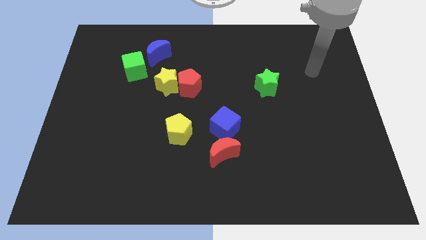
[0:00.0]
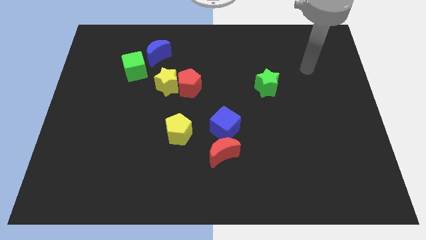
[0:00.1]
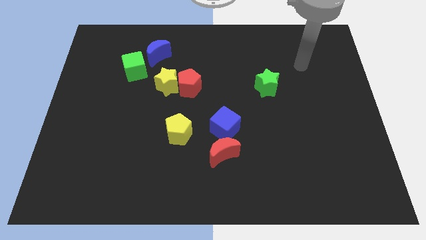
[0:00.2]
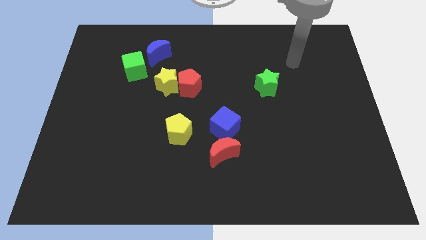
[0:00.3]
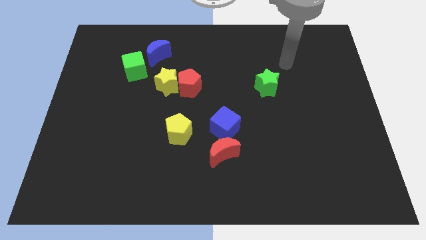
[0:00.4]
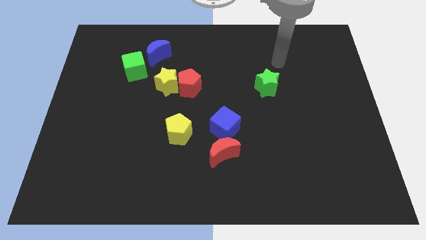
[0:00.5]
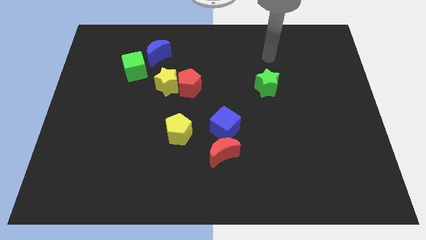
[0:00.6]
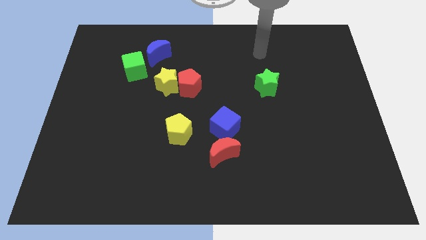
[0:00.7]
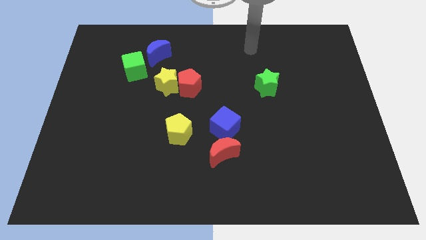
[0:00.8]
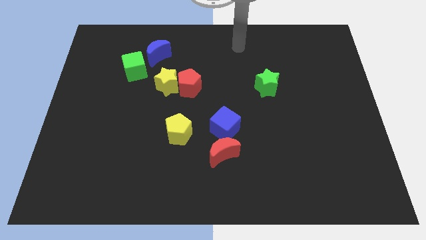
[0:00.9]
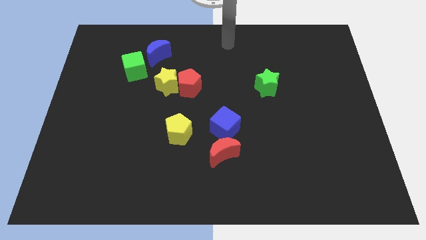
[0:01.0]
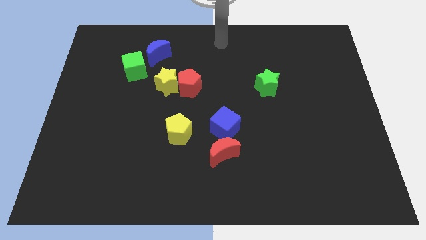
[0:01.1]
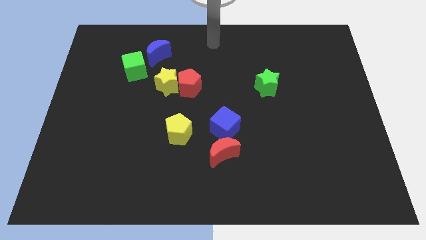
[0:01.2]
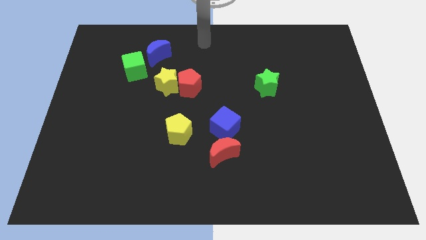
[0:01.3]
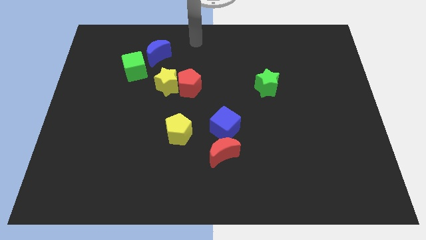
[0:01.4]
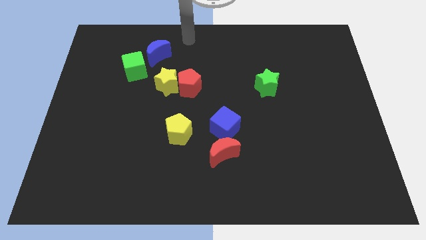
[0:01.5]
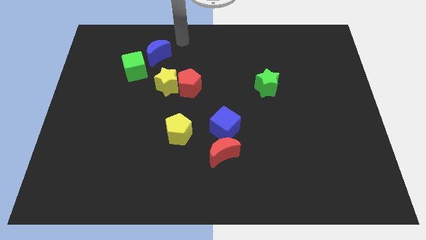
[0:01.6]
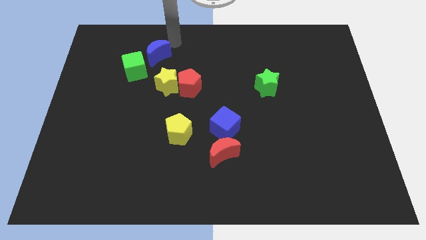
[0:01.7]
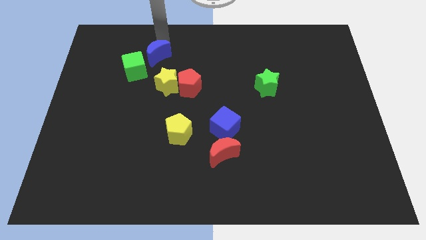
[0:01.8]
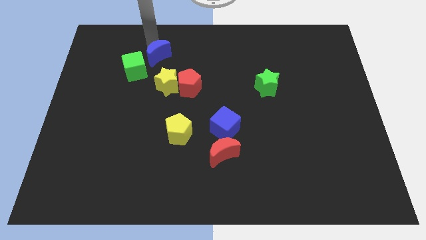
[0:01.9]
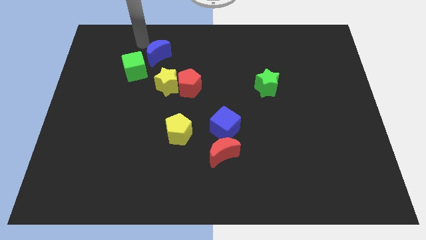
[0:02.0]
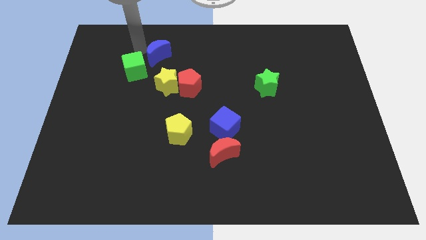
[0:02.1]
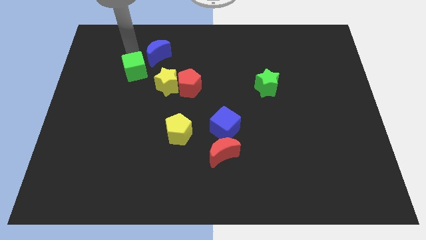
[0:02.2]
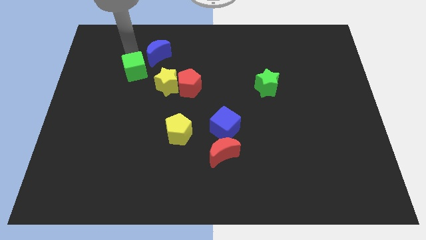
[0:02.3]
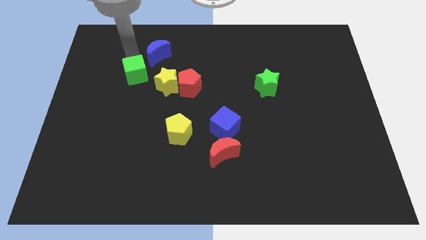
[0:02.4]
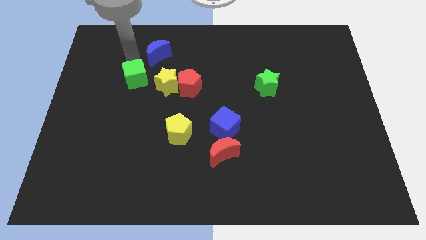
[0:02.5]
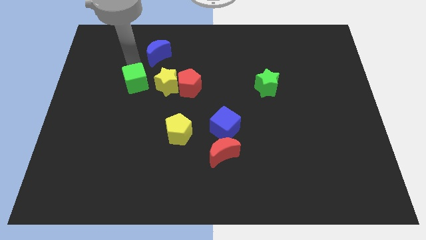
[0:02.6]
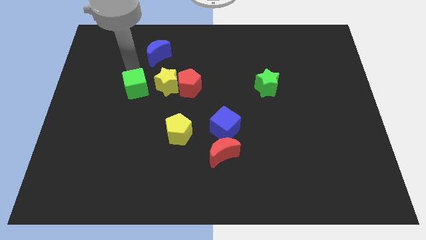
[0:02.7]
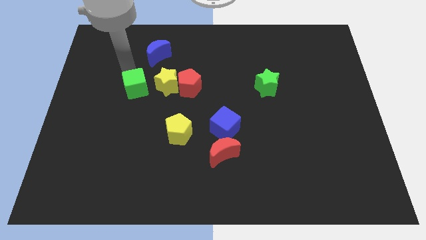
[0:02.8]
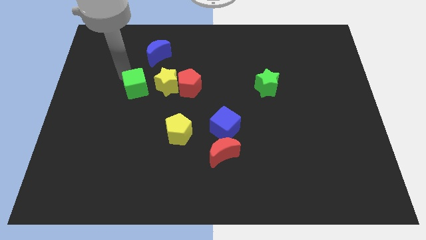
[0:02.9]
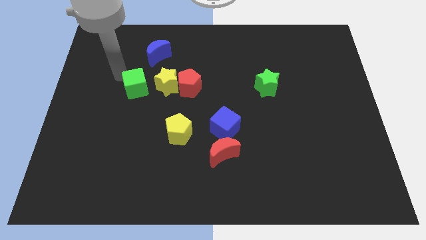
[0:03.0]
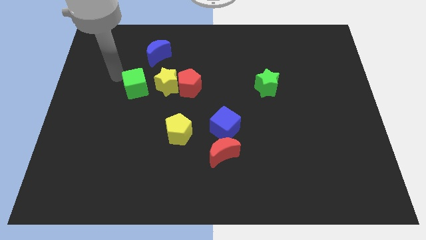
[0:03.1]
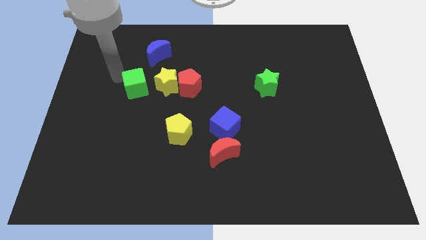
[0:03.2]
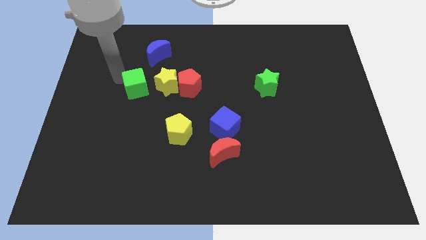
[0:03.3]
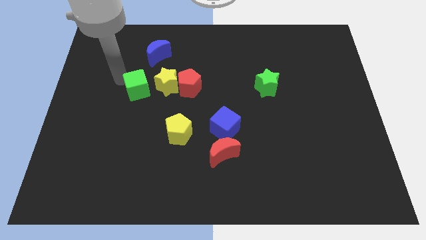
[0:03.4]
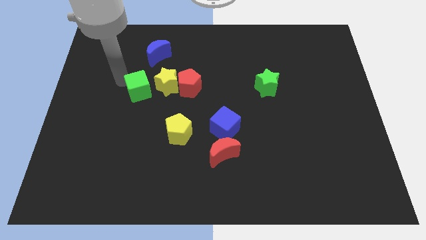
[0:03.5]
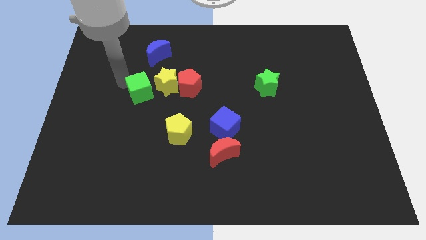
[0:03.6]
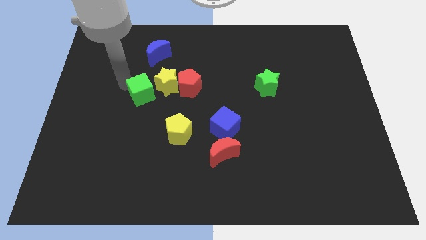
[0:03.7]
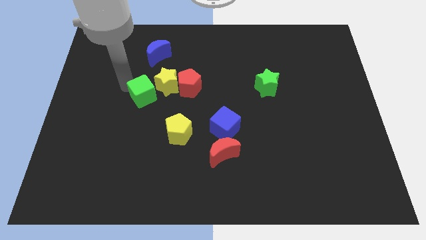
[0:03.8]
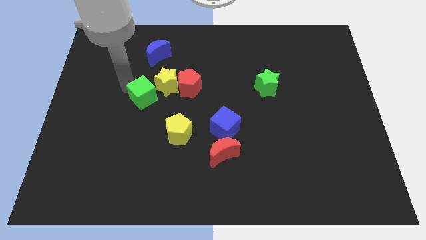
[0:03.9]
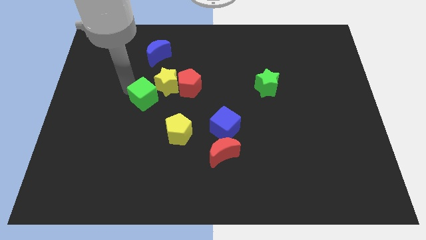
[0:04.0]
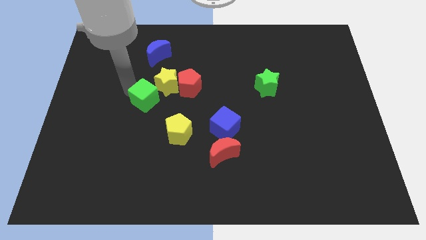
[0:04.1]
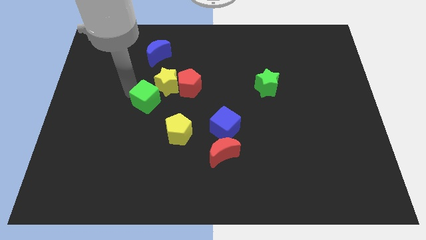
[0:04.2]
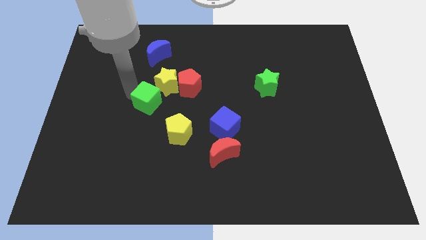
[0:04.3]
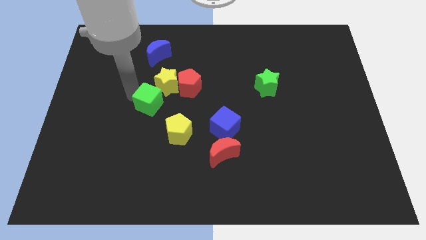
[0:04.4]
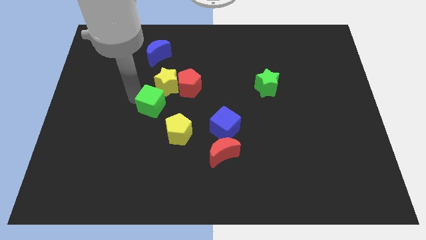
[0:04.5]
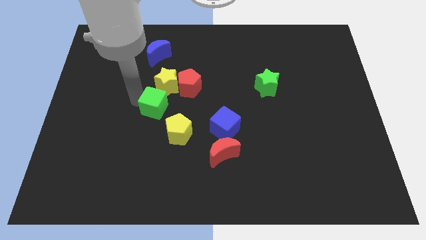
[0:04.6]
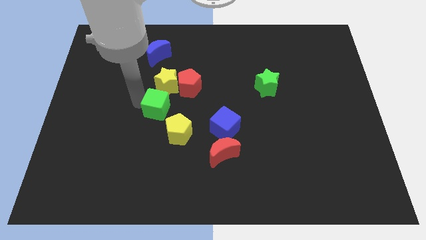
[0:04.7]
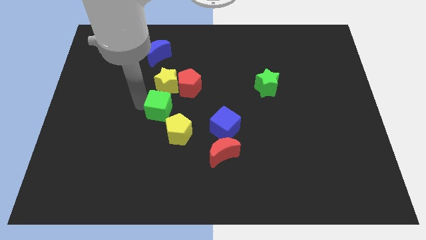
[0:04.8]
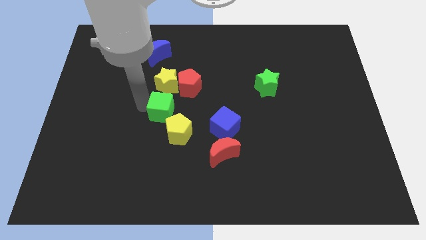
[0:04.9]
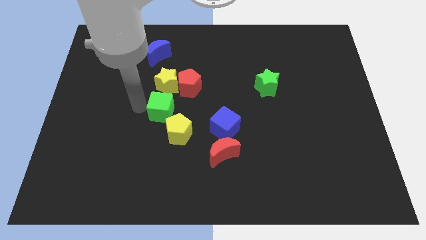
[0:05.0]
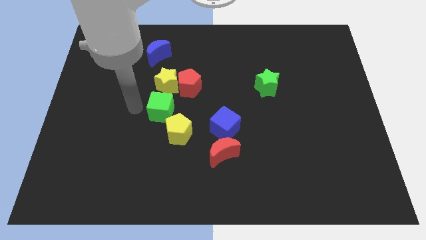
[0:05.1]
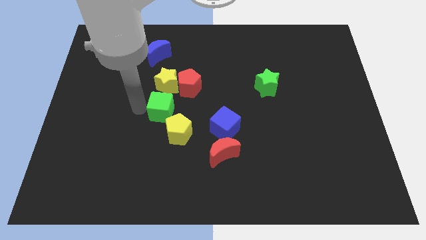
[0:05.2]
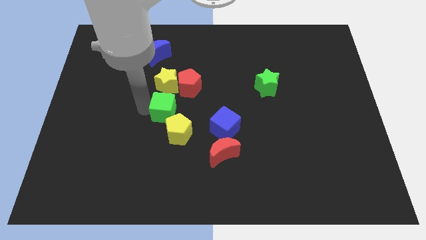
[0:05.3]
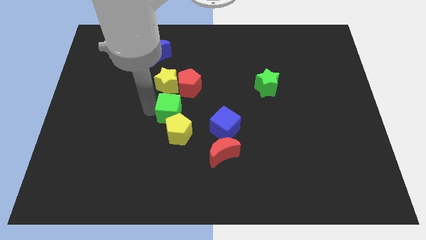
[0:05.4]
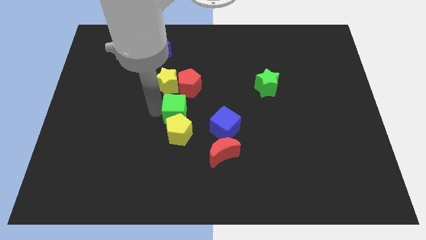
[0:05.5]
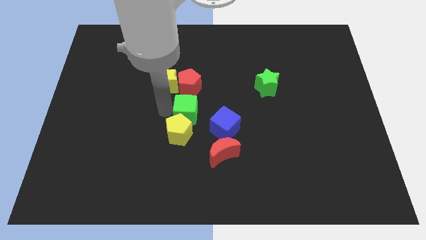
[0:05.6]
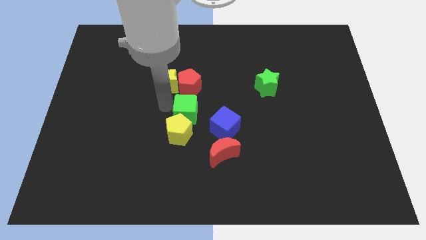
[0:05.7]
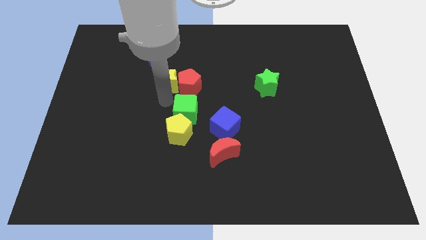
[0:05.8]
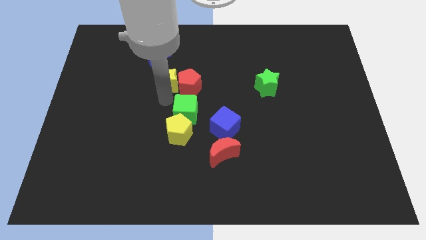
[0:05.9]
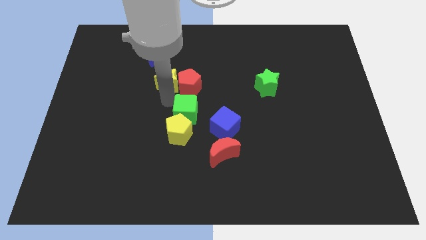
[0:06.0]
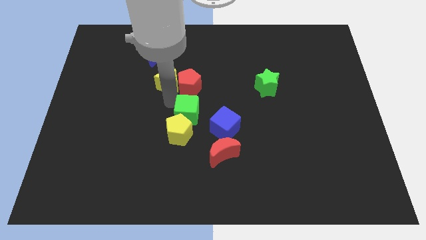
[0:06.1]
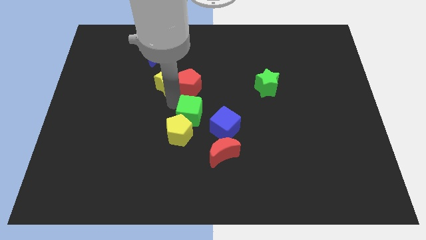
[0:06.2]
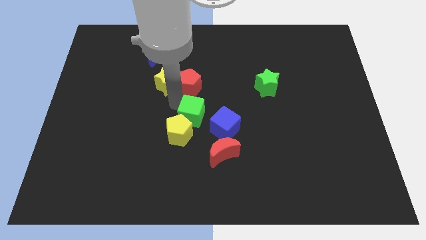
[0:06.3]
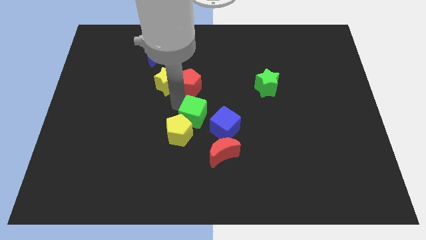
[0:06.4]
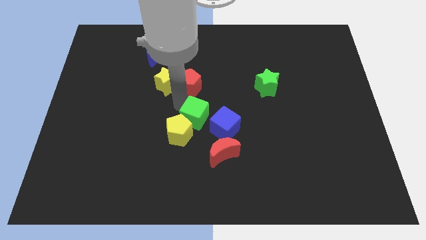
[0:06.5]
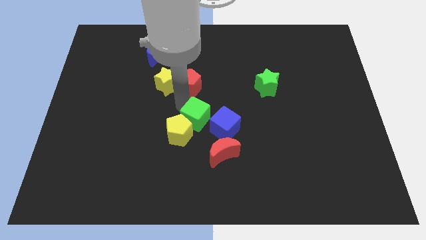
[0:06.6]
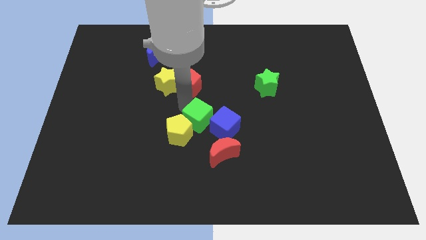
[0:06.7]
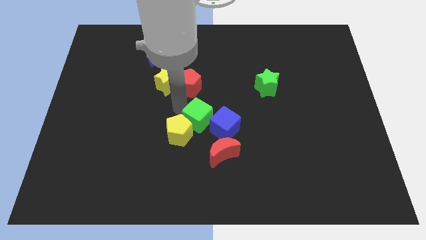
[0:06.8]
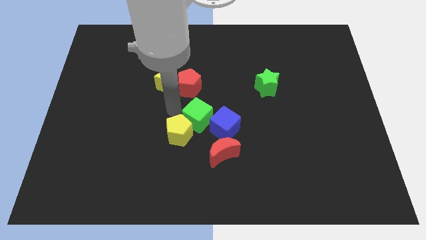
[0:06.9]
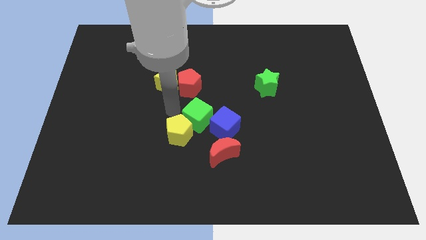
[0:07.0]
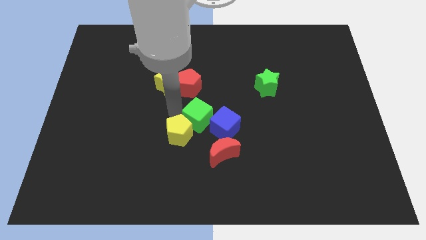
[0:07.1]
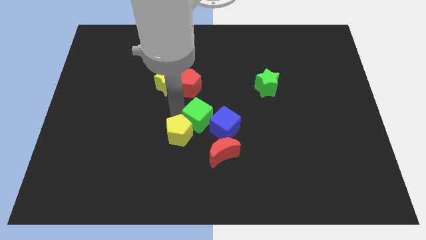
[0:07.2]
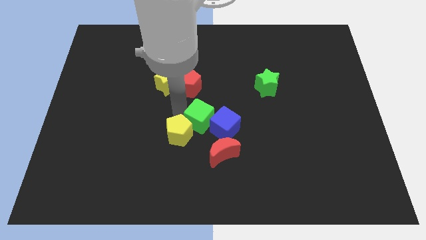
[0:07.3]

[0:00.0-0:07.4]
slide the green cube next to the blue cube
